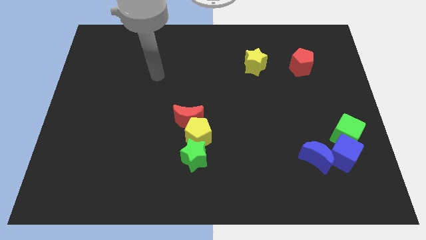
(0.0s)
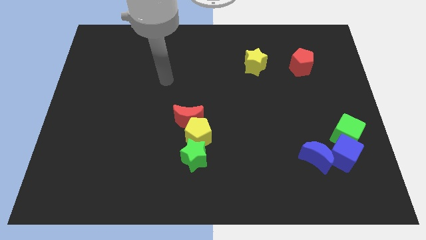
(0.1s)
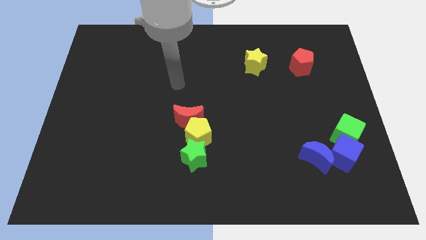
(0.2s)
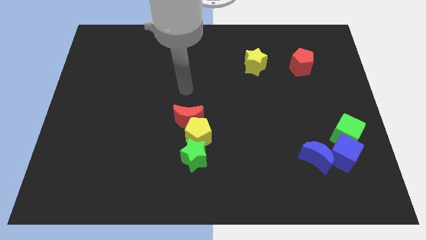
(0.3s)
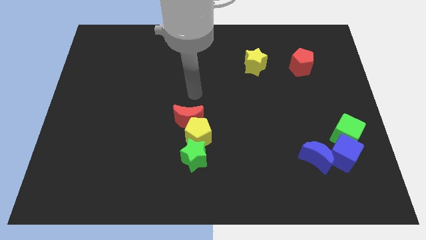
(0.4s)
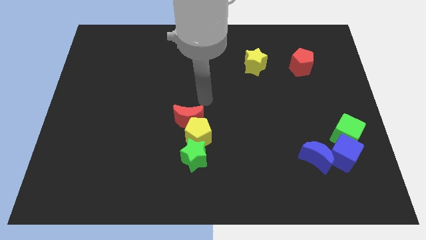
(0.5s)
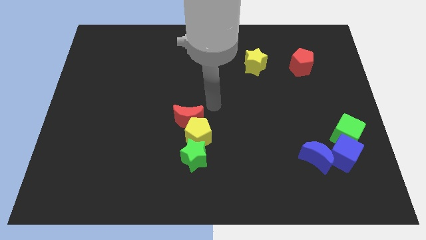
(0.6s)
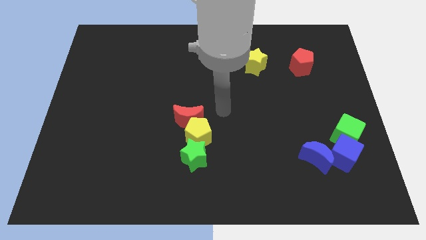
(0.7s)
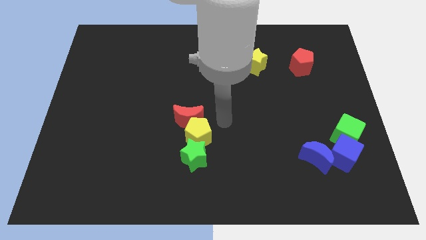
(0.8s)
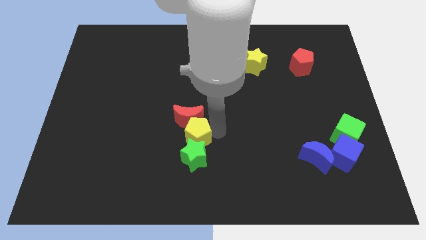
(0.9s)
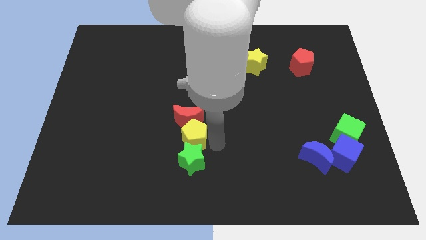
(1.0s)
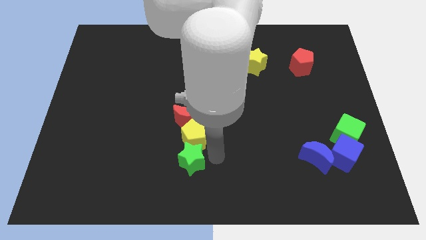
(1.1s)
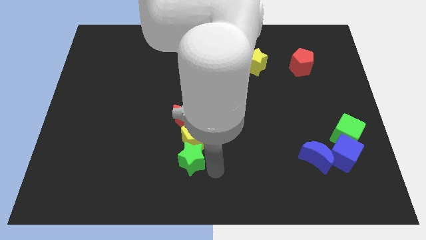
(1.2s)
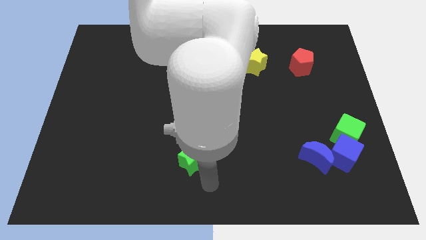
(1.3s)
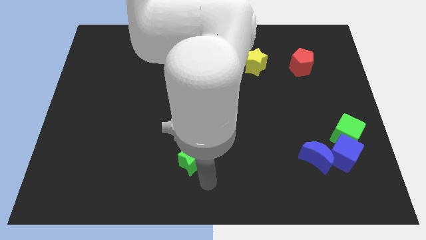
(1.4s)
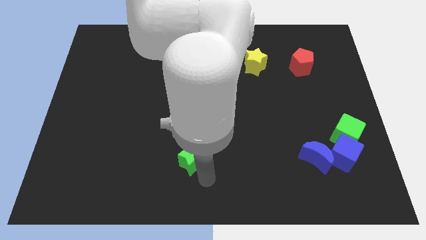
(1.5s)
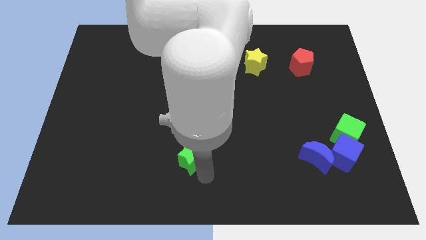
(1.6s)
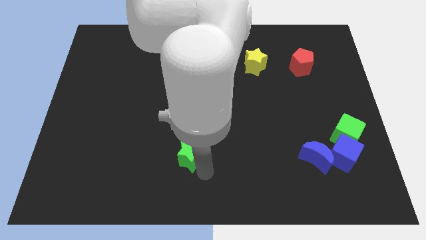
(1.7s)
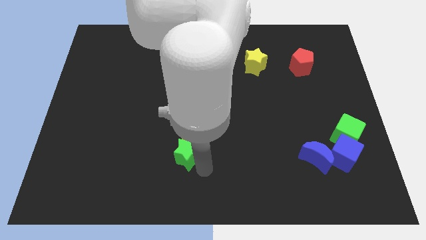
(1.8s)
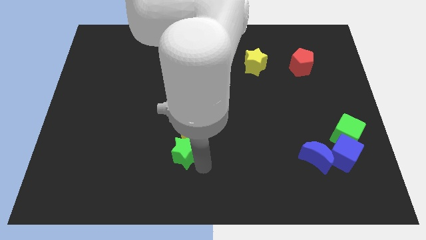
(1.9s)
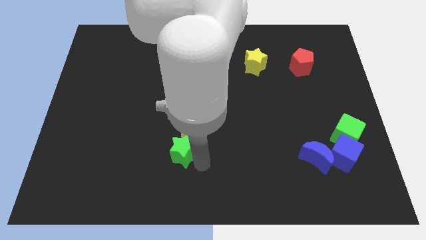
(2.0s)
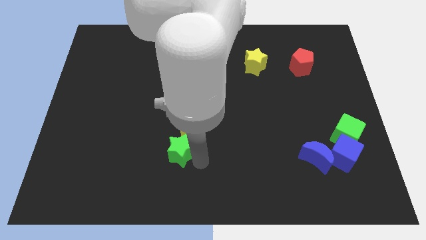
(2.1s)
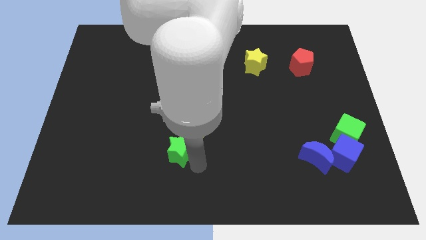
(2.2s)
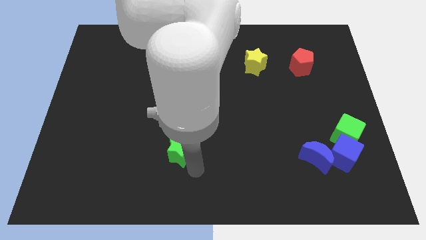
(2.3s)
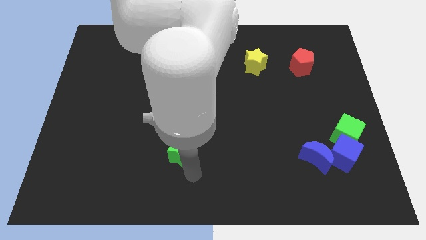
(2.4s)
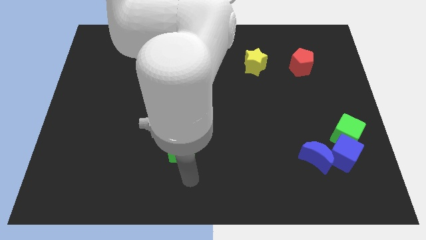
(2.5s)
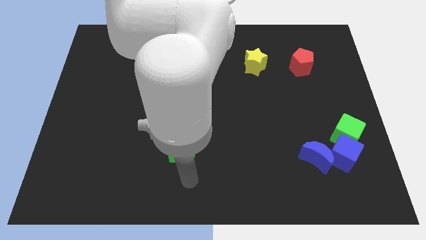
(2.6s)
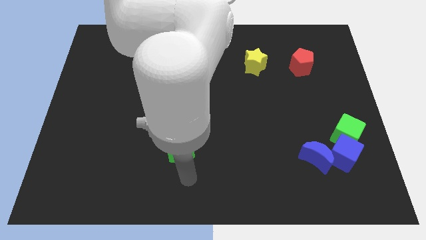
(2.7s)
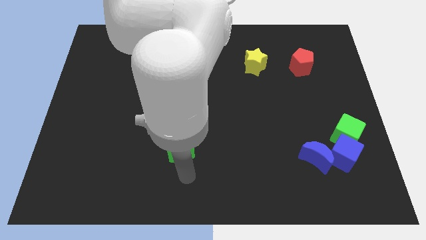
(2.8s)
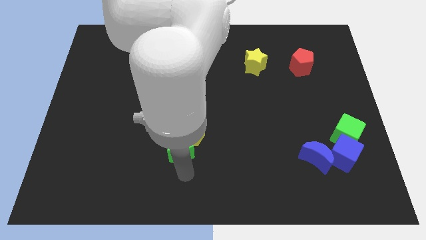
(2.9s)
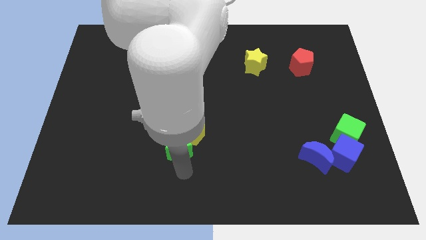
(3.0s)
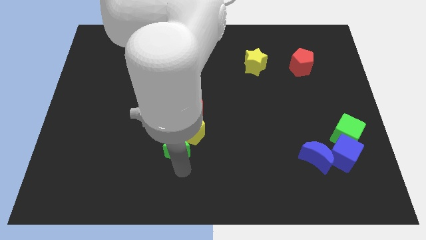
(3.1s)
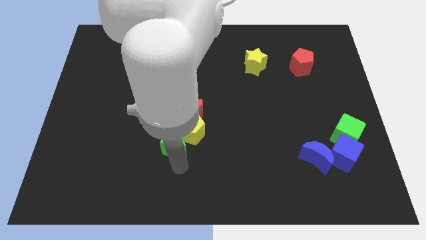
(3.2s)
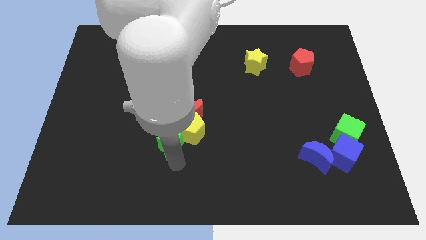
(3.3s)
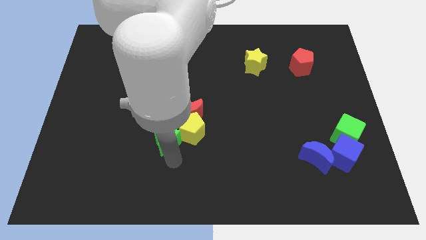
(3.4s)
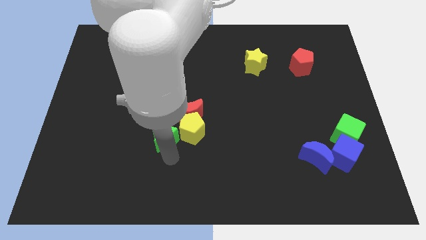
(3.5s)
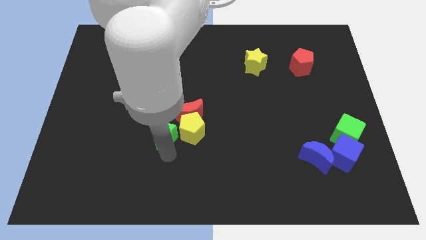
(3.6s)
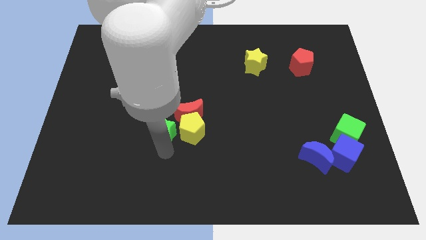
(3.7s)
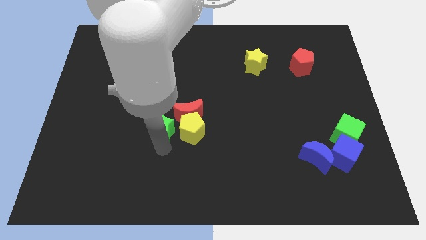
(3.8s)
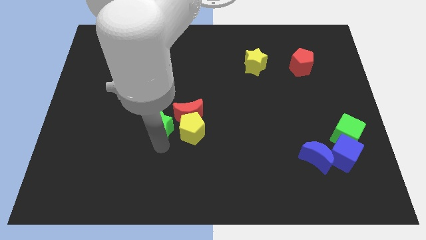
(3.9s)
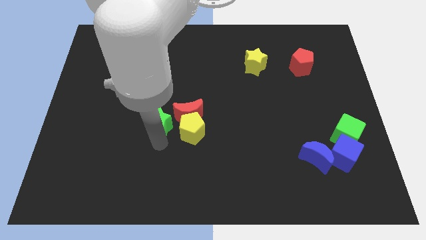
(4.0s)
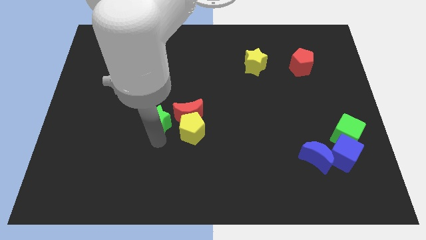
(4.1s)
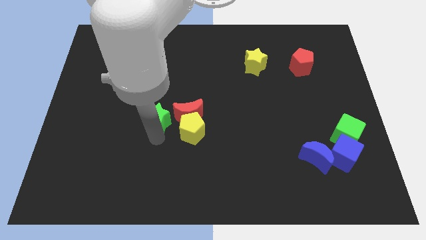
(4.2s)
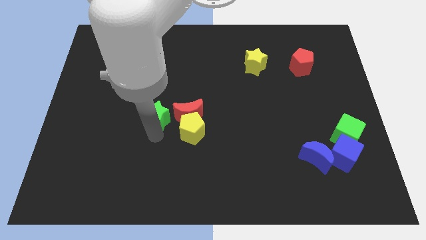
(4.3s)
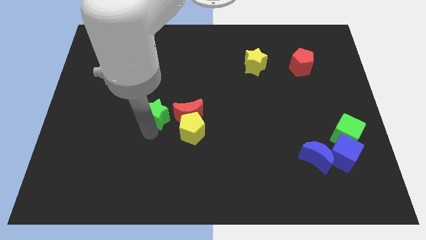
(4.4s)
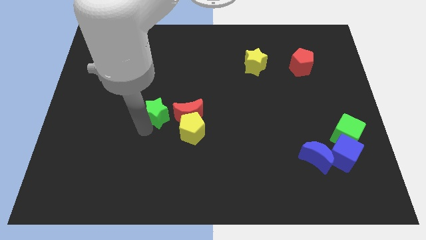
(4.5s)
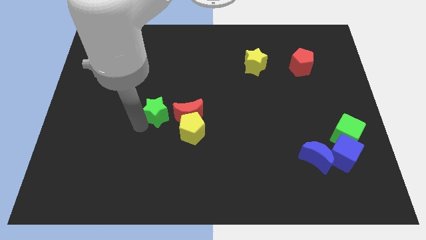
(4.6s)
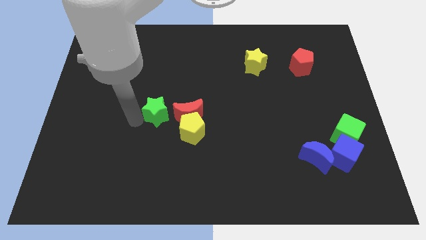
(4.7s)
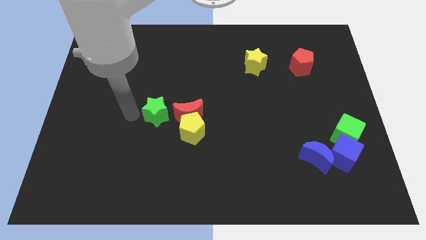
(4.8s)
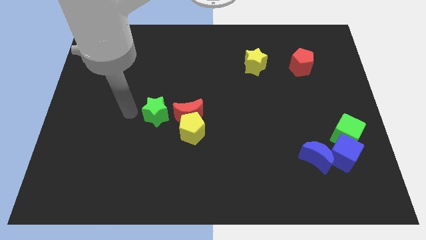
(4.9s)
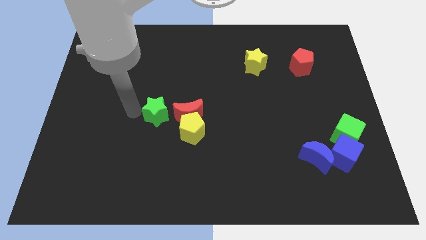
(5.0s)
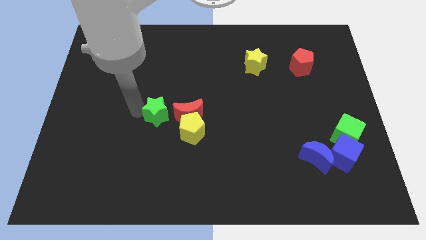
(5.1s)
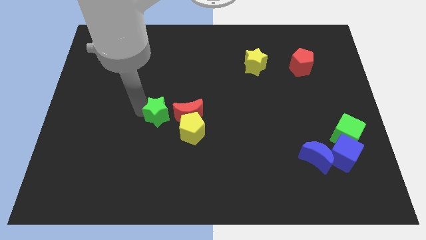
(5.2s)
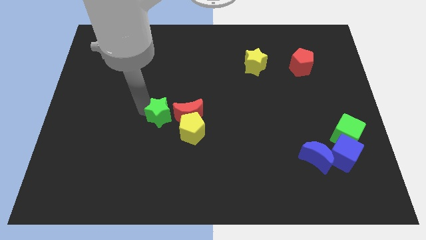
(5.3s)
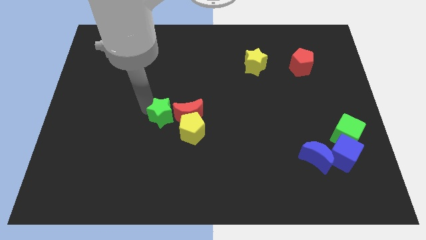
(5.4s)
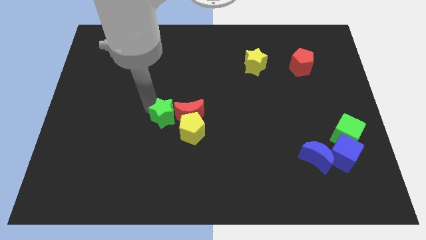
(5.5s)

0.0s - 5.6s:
push the green star close to the red moon

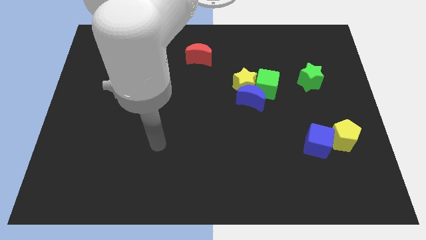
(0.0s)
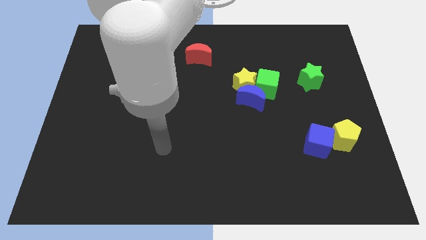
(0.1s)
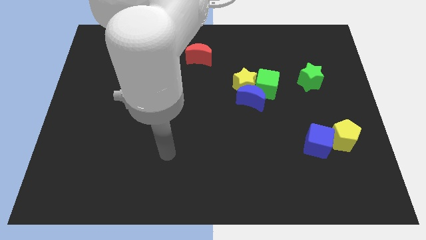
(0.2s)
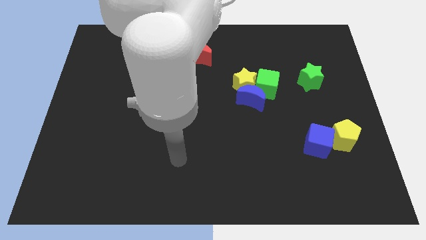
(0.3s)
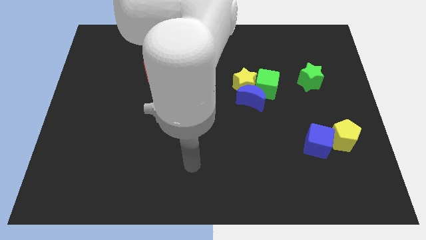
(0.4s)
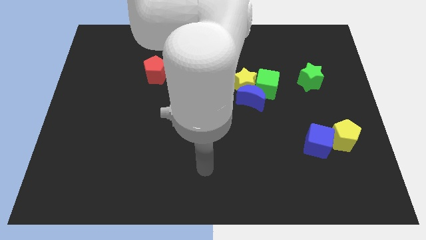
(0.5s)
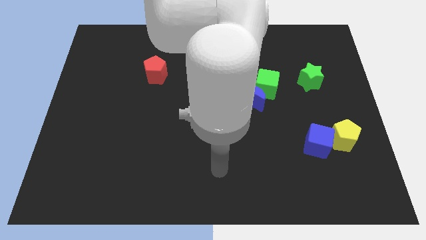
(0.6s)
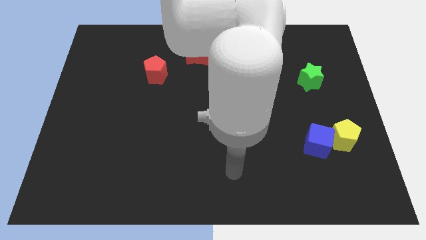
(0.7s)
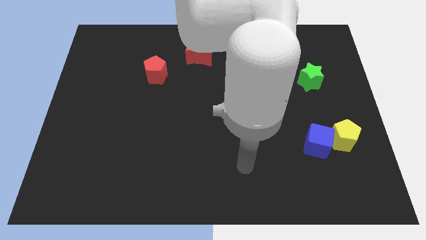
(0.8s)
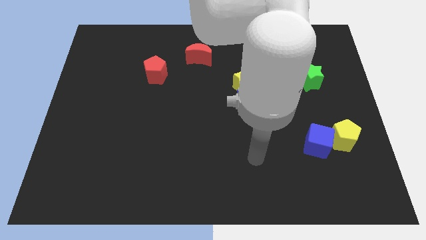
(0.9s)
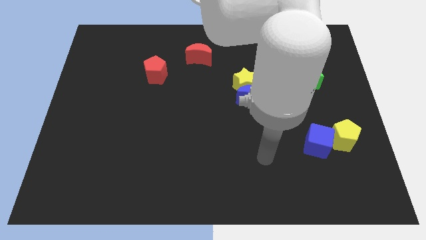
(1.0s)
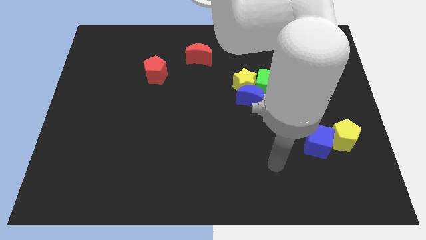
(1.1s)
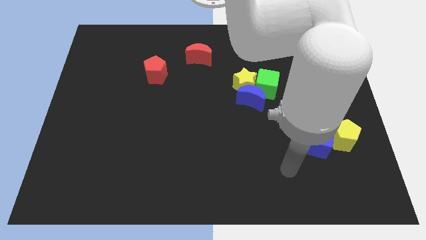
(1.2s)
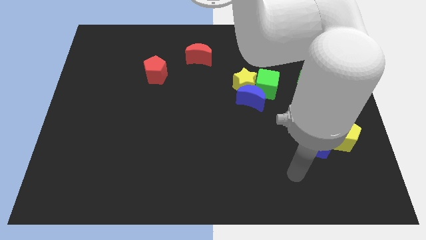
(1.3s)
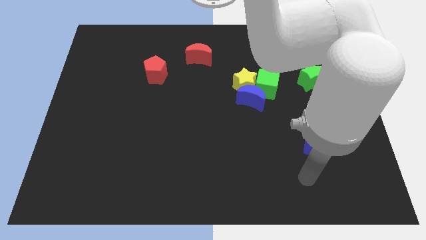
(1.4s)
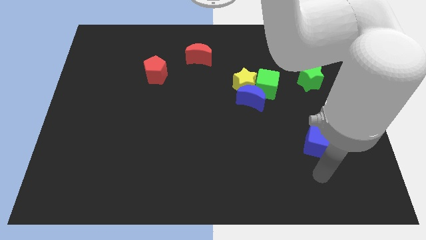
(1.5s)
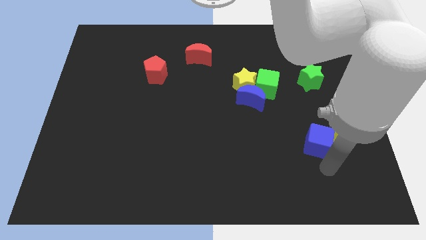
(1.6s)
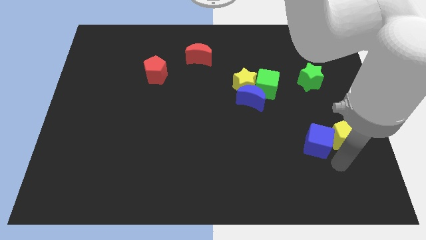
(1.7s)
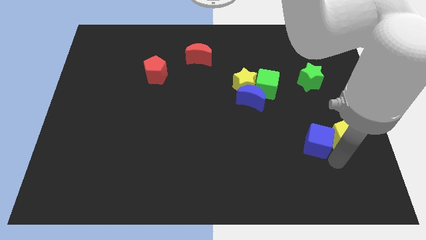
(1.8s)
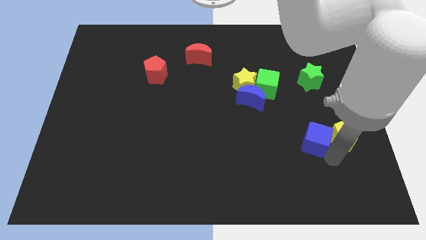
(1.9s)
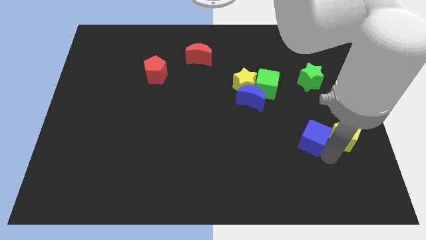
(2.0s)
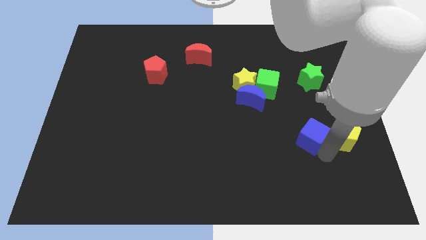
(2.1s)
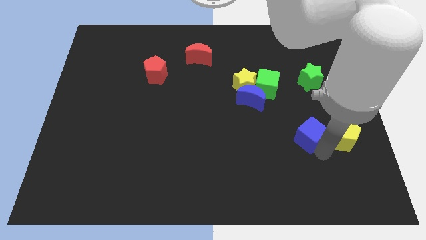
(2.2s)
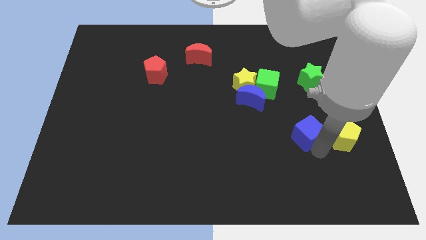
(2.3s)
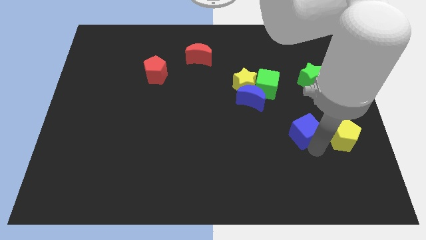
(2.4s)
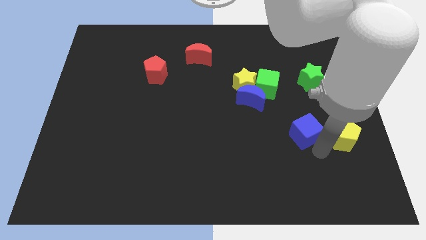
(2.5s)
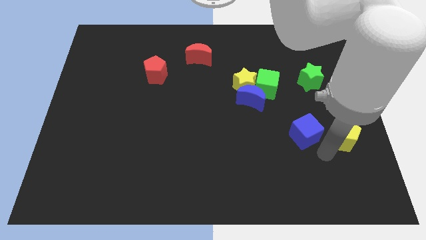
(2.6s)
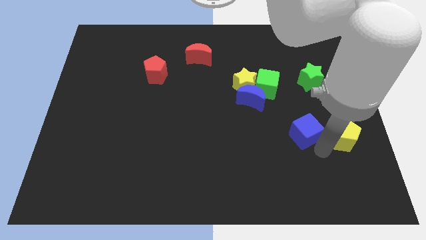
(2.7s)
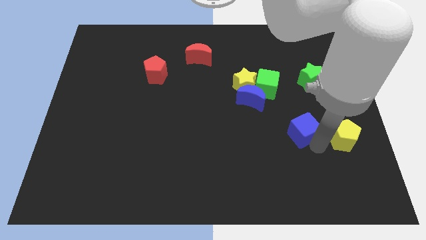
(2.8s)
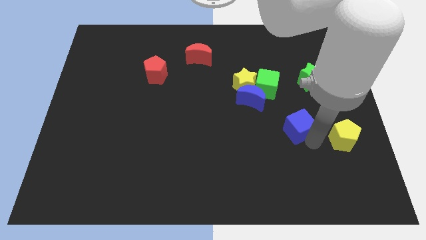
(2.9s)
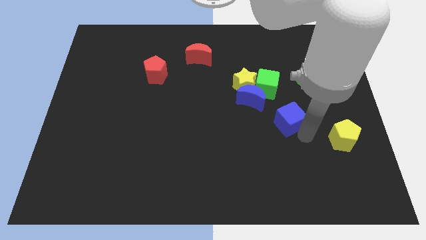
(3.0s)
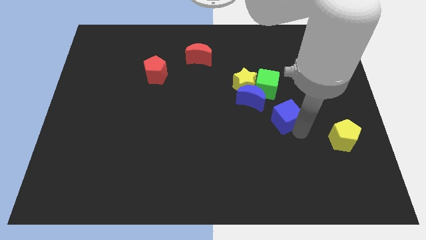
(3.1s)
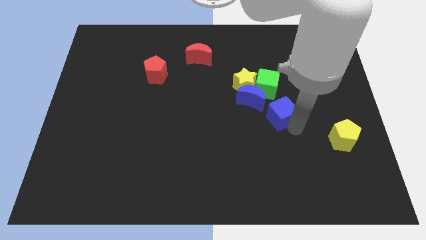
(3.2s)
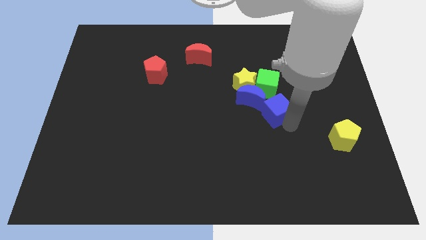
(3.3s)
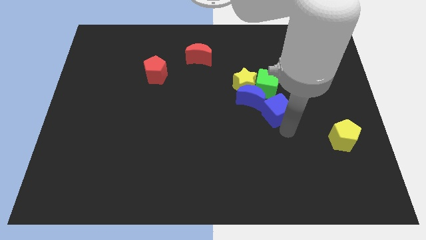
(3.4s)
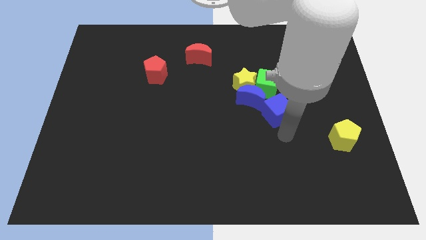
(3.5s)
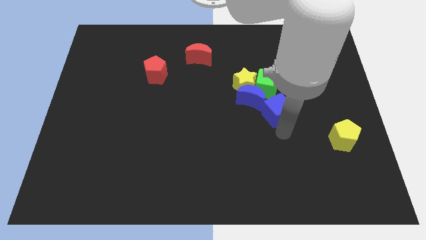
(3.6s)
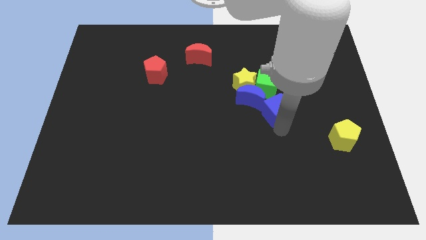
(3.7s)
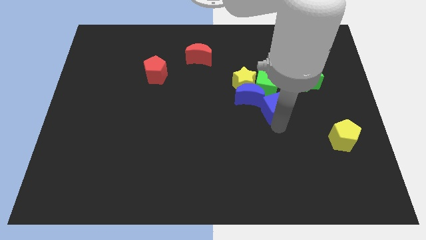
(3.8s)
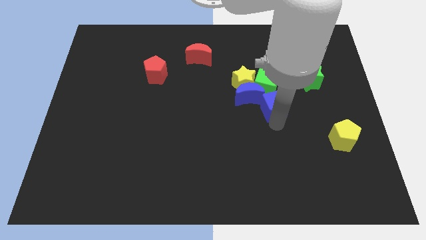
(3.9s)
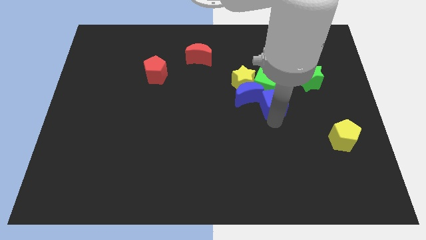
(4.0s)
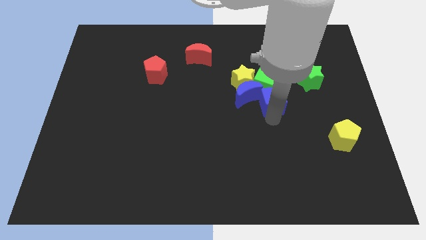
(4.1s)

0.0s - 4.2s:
move the blue cube close to the green cube
